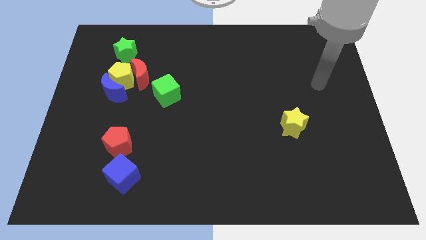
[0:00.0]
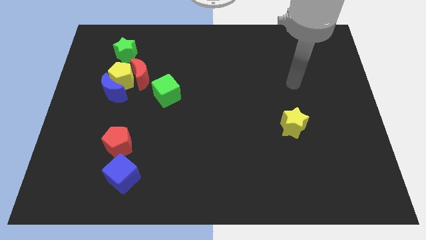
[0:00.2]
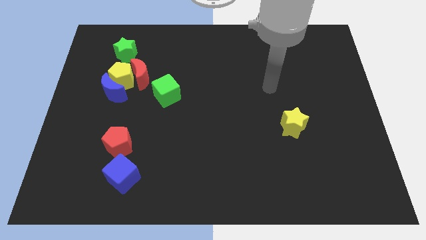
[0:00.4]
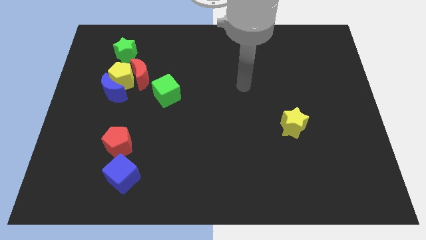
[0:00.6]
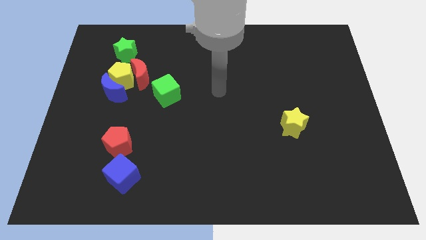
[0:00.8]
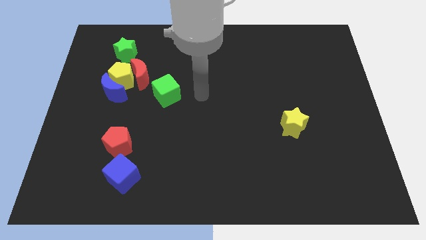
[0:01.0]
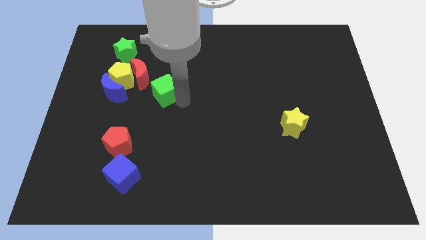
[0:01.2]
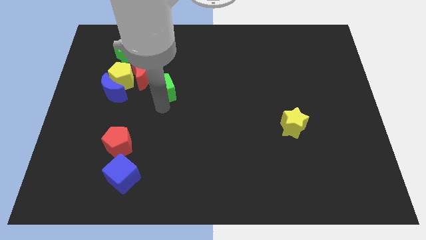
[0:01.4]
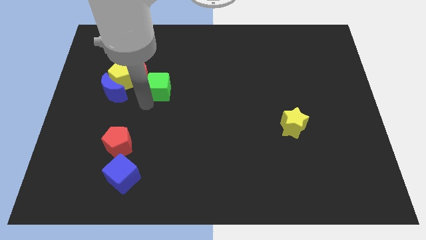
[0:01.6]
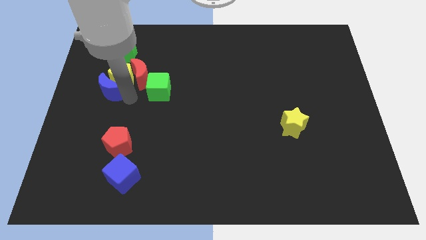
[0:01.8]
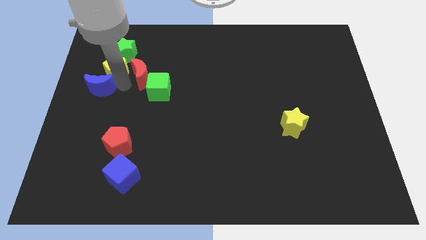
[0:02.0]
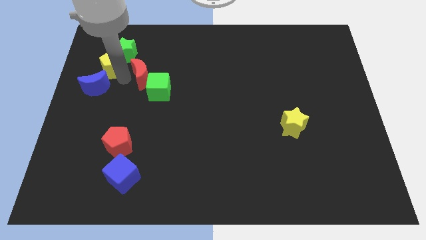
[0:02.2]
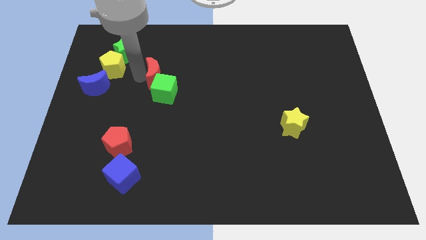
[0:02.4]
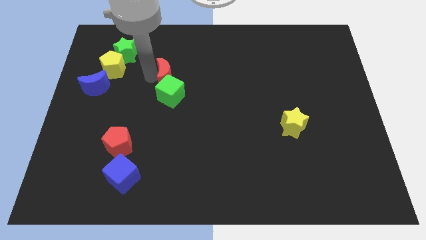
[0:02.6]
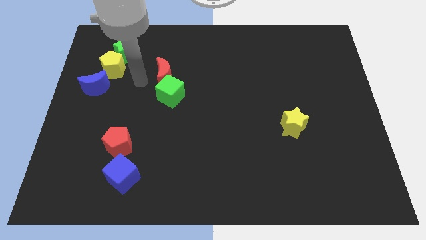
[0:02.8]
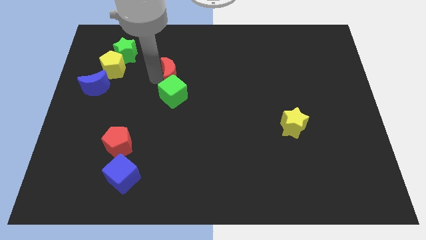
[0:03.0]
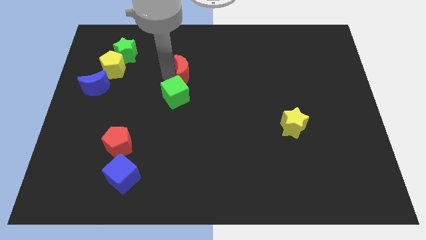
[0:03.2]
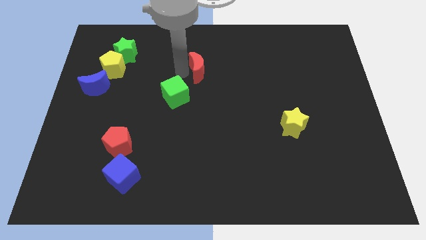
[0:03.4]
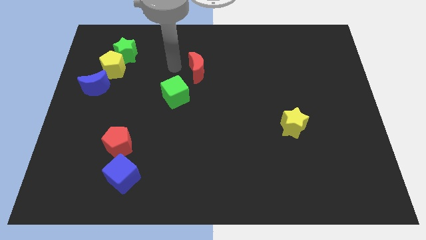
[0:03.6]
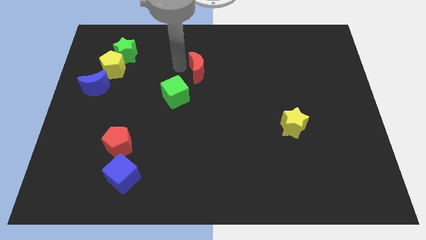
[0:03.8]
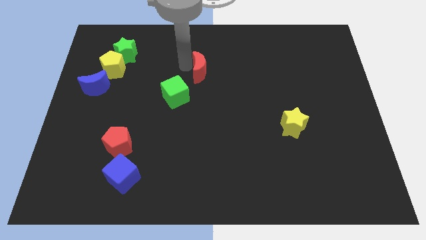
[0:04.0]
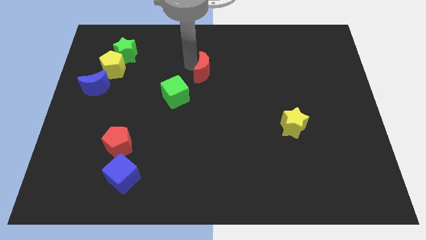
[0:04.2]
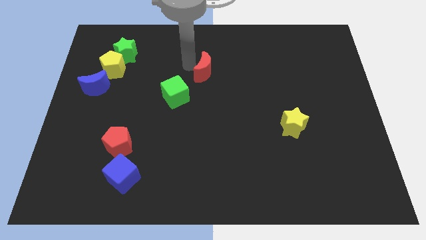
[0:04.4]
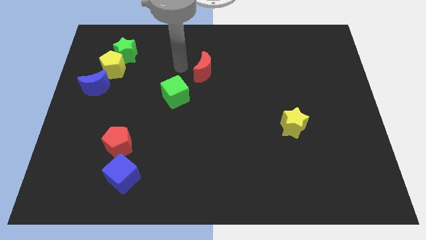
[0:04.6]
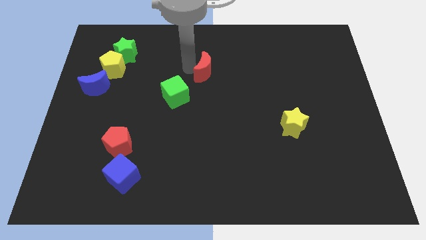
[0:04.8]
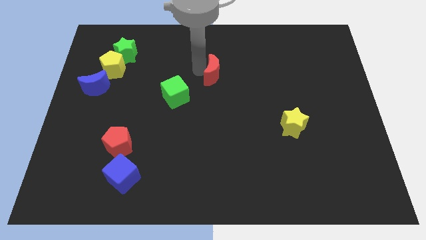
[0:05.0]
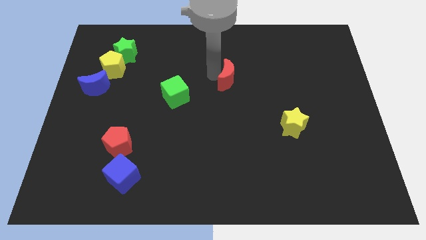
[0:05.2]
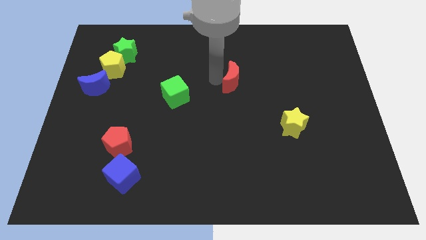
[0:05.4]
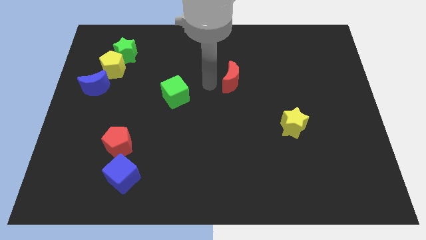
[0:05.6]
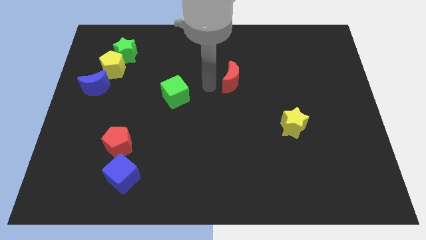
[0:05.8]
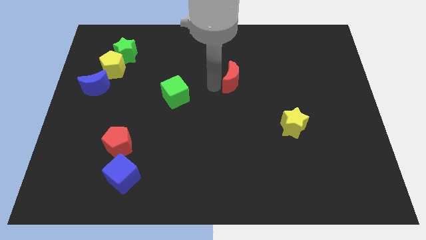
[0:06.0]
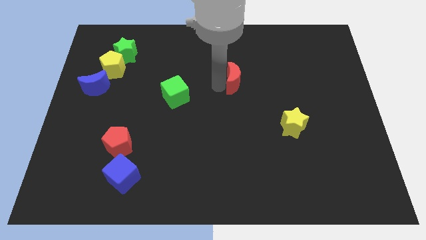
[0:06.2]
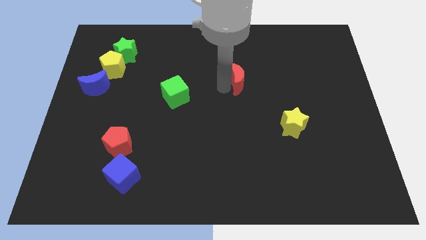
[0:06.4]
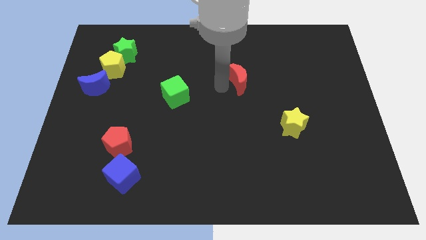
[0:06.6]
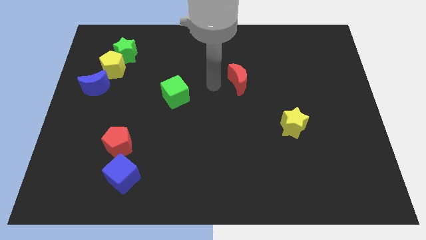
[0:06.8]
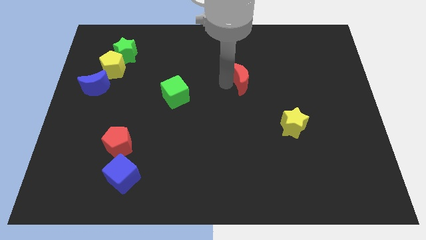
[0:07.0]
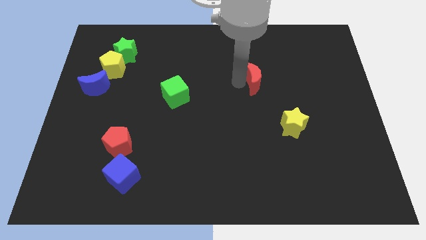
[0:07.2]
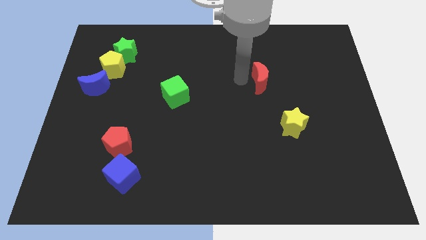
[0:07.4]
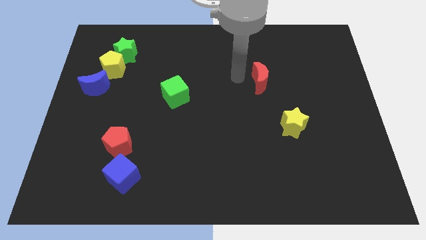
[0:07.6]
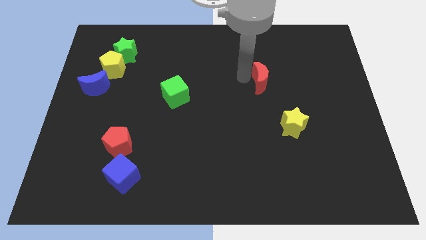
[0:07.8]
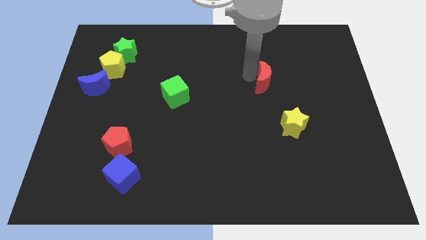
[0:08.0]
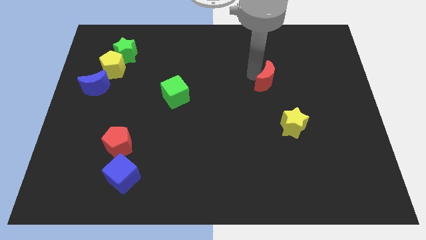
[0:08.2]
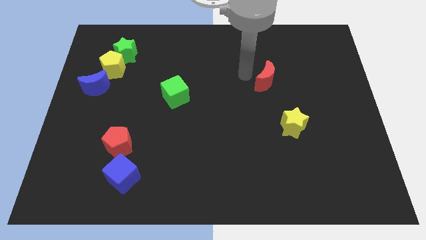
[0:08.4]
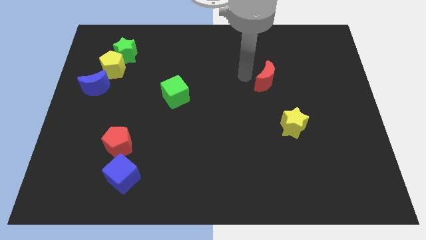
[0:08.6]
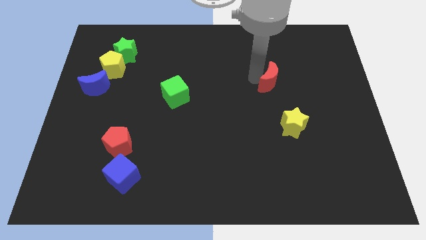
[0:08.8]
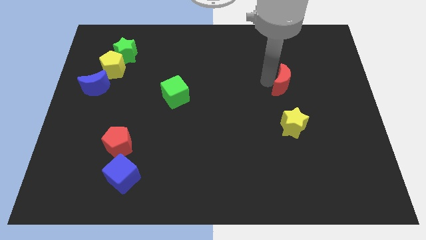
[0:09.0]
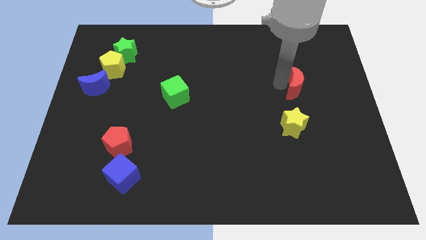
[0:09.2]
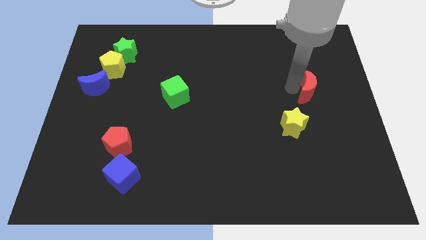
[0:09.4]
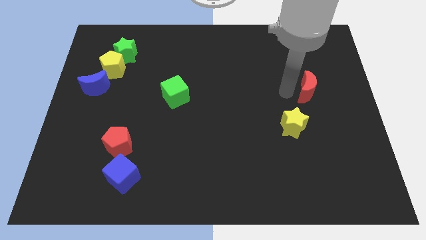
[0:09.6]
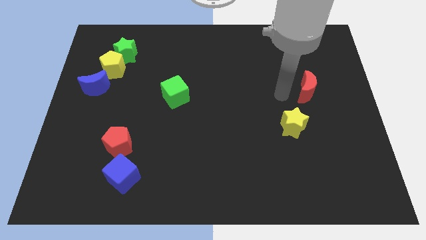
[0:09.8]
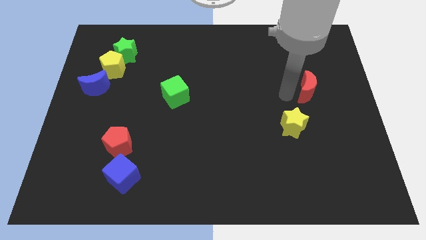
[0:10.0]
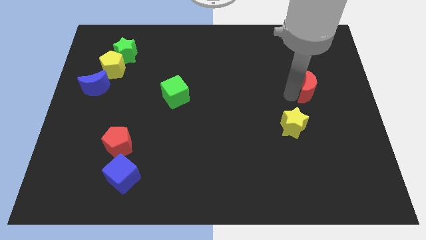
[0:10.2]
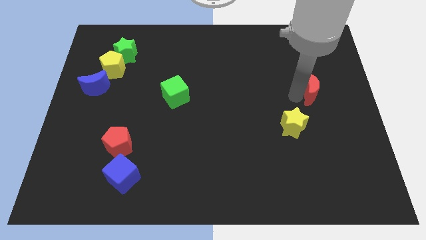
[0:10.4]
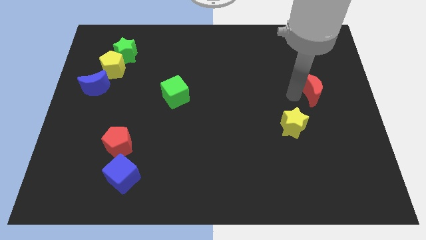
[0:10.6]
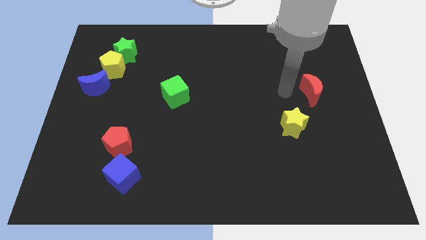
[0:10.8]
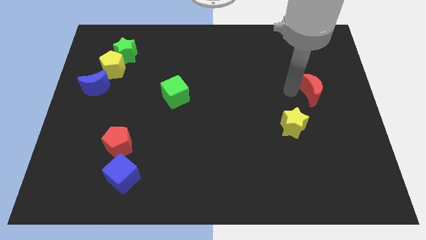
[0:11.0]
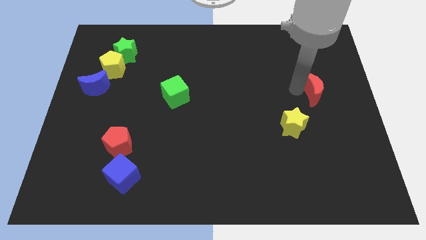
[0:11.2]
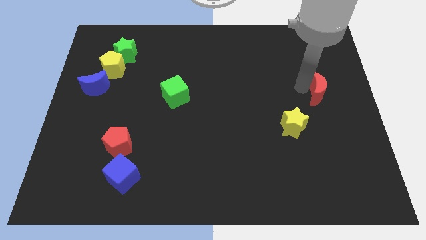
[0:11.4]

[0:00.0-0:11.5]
put the red moon to the right side of the board
